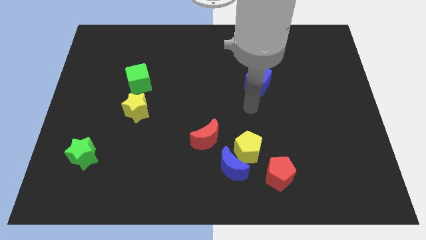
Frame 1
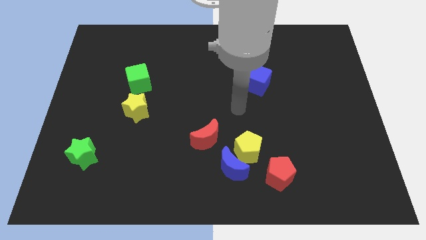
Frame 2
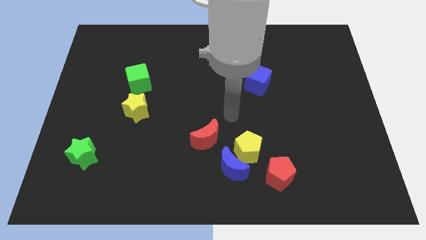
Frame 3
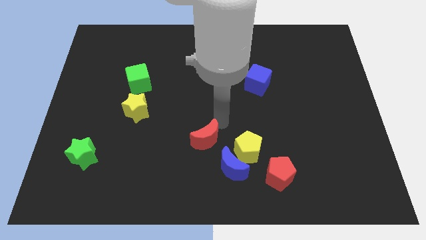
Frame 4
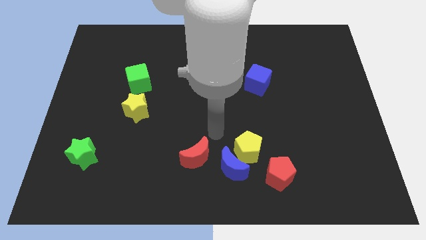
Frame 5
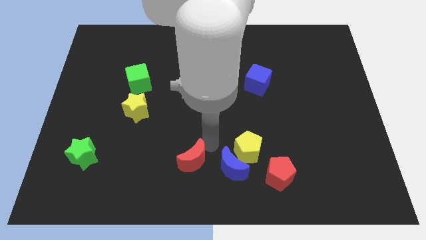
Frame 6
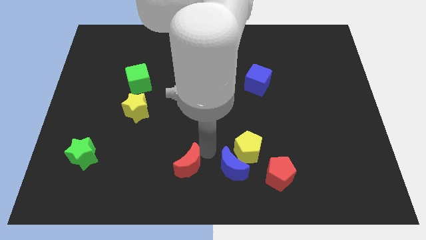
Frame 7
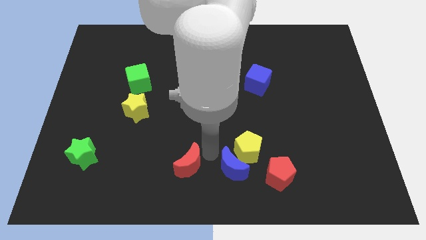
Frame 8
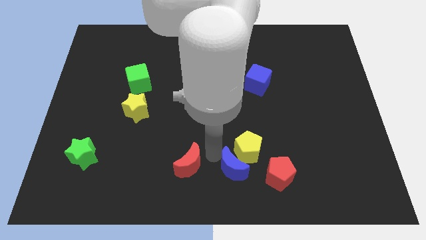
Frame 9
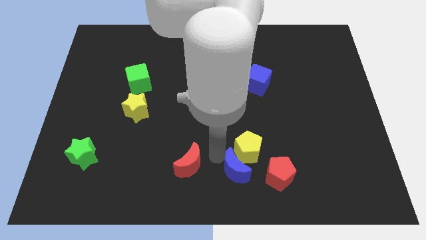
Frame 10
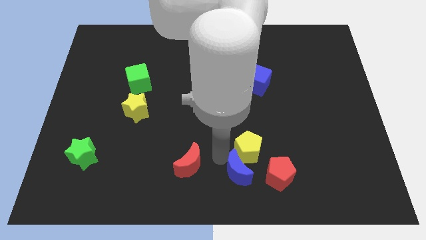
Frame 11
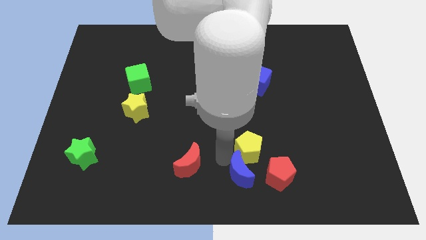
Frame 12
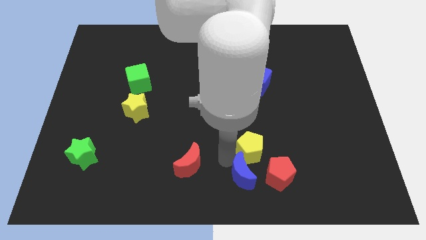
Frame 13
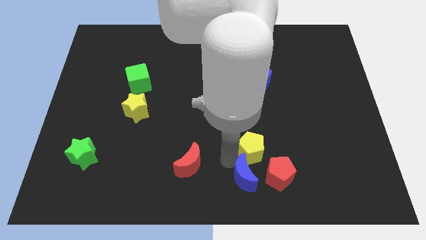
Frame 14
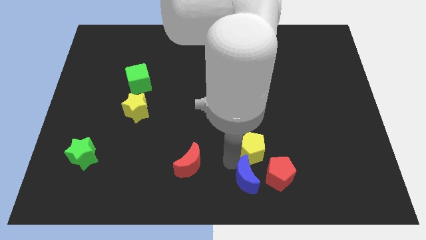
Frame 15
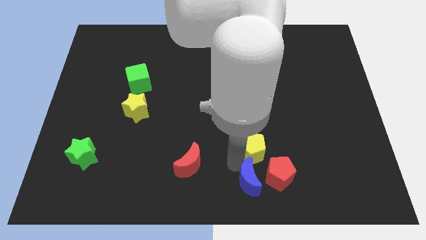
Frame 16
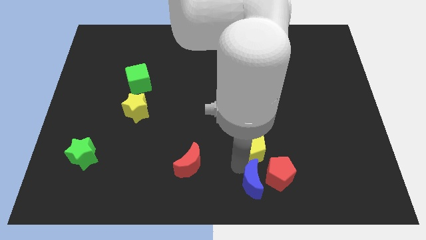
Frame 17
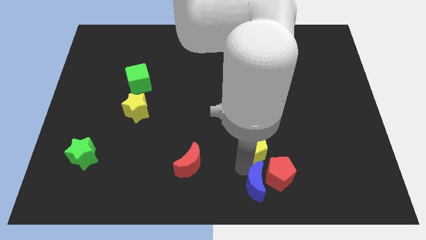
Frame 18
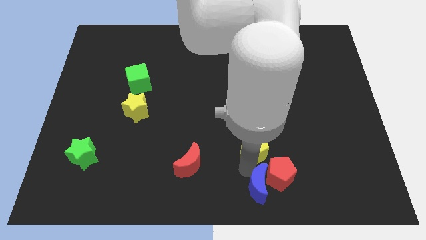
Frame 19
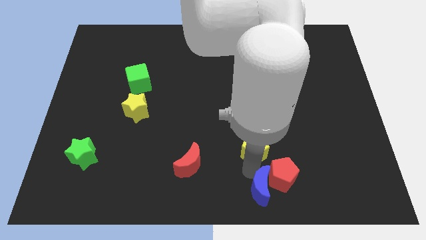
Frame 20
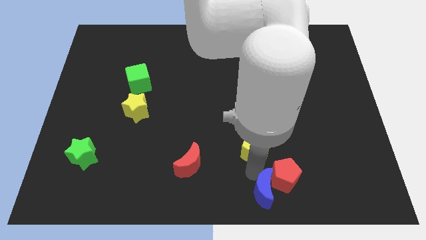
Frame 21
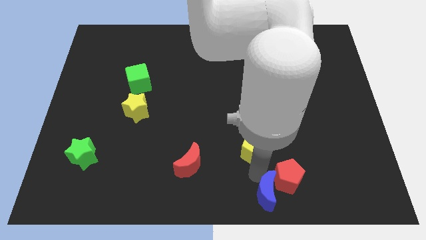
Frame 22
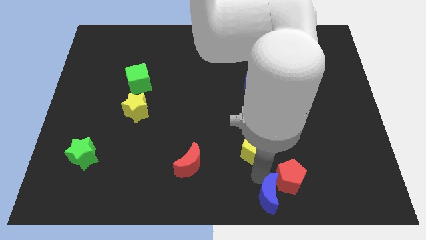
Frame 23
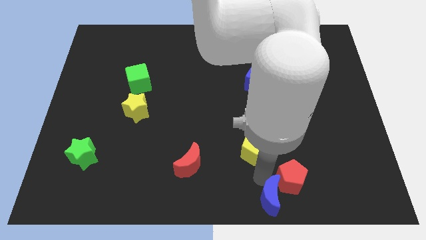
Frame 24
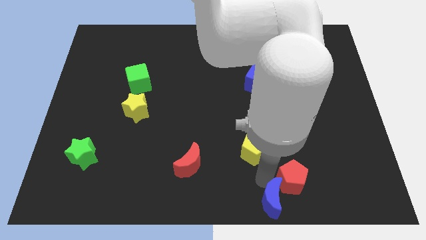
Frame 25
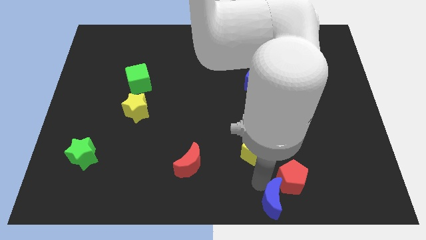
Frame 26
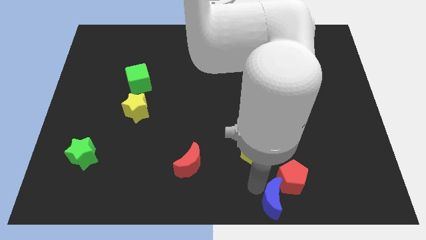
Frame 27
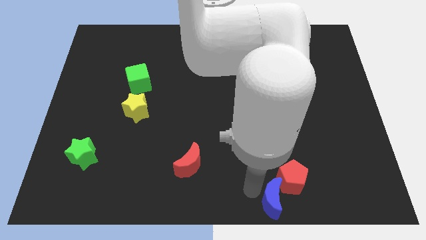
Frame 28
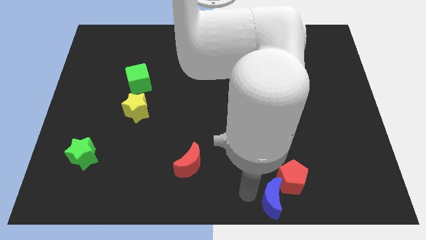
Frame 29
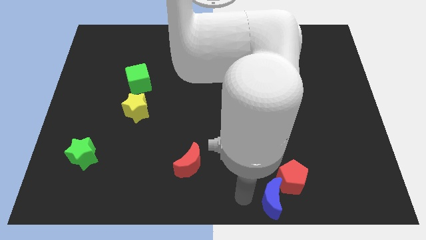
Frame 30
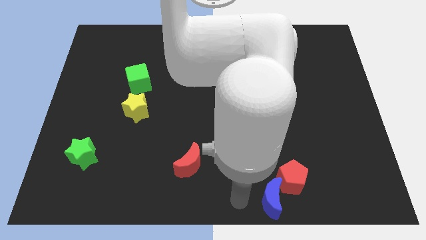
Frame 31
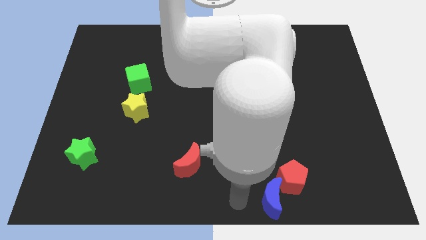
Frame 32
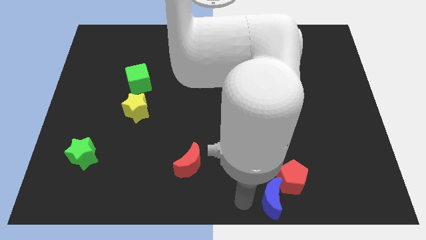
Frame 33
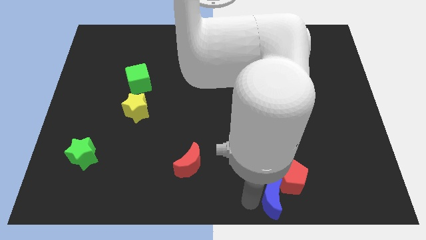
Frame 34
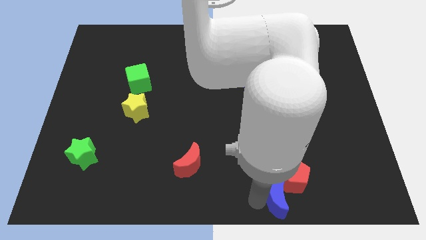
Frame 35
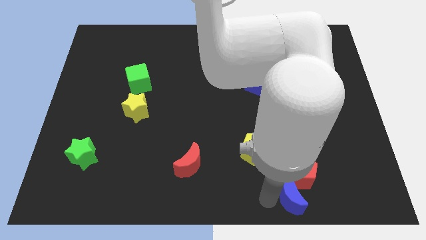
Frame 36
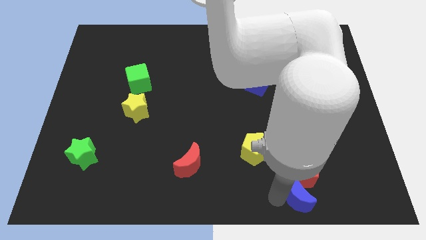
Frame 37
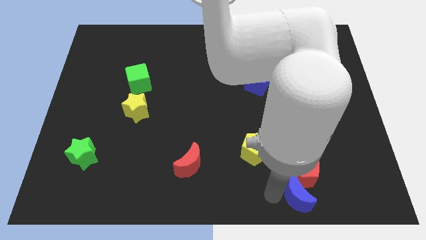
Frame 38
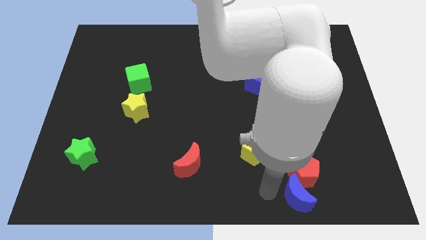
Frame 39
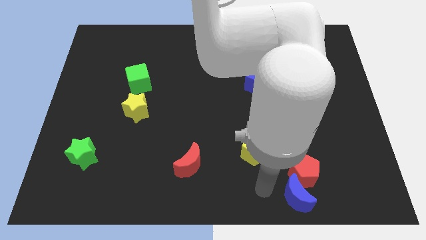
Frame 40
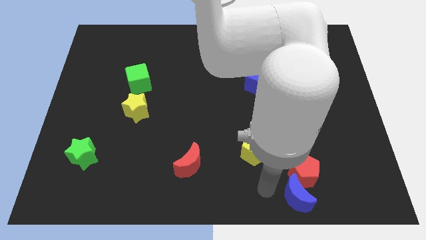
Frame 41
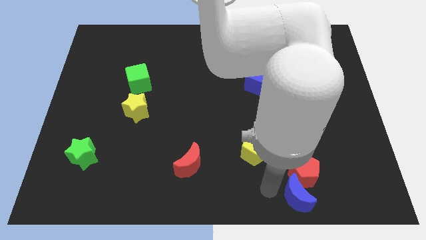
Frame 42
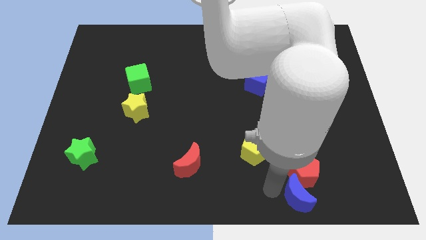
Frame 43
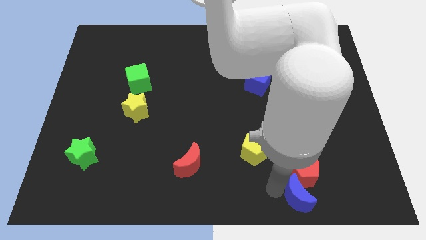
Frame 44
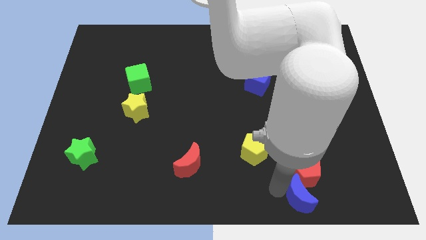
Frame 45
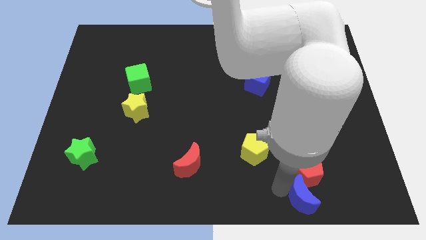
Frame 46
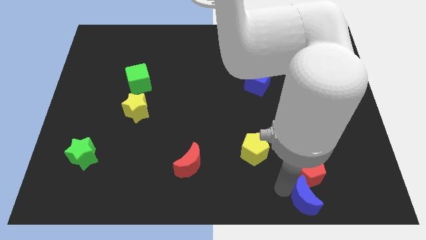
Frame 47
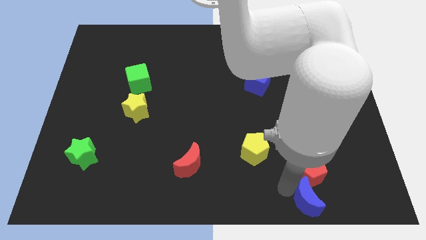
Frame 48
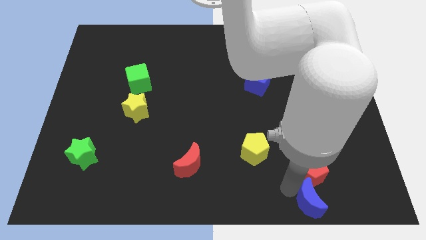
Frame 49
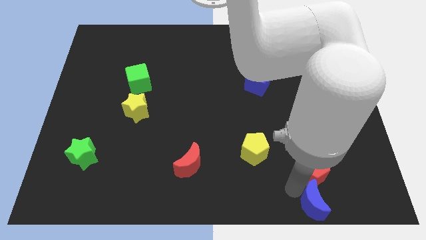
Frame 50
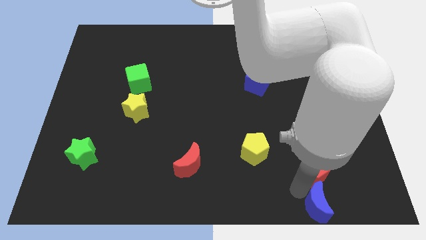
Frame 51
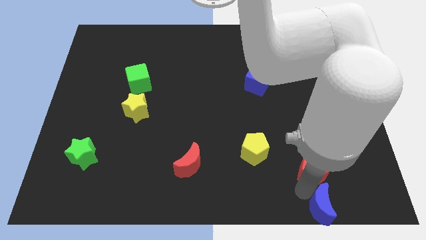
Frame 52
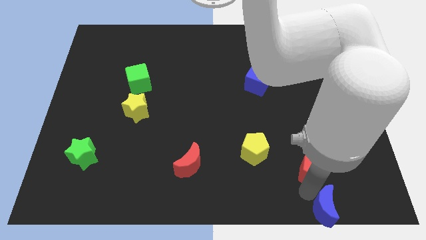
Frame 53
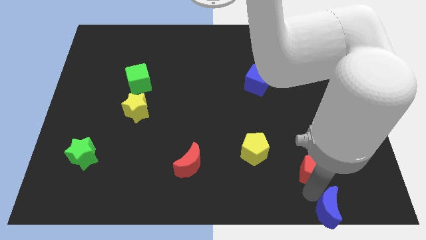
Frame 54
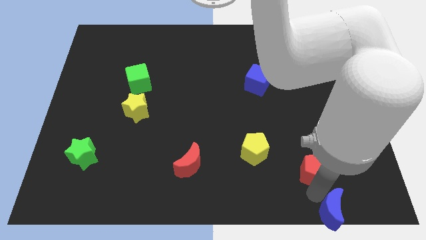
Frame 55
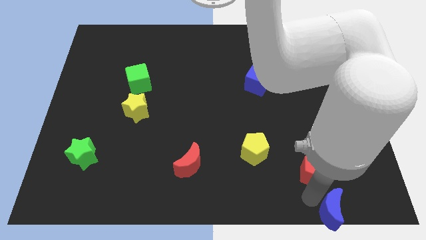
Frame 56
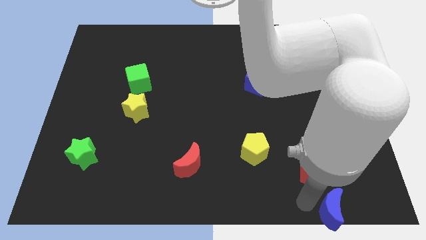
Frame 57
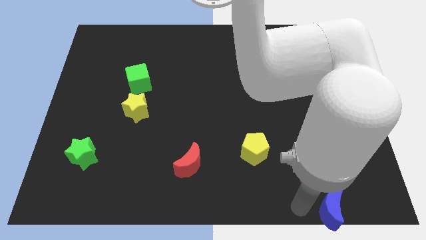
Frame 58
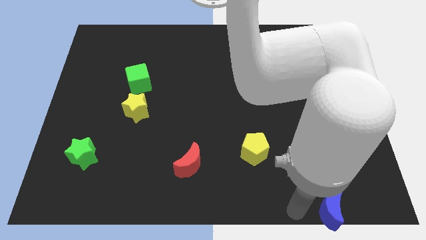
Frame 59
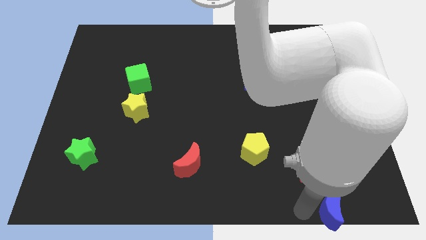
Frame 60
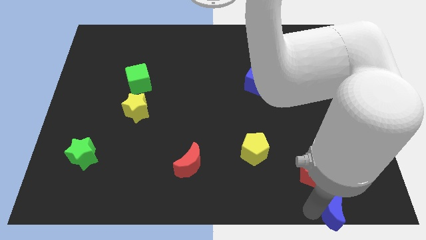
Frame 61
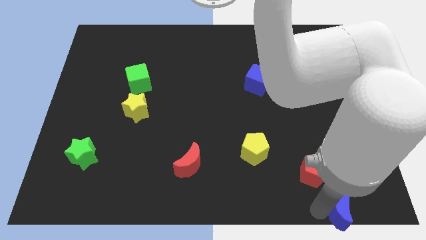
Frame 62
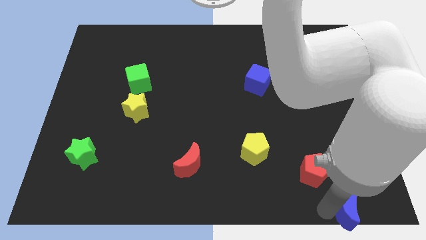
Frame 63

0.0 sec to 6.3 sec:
slide the blue moon to the bottom right corner

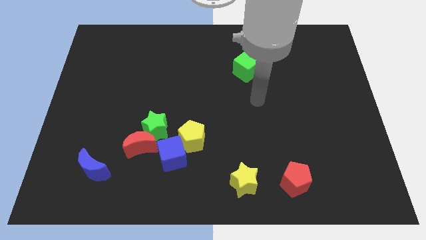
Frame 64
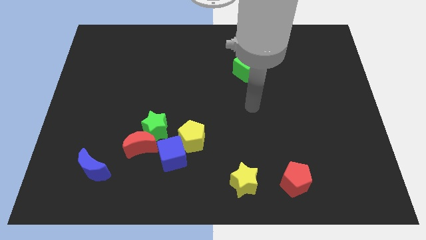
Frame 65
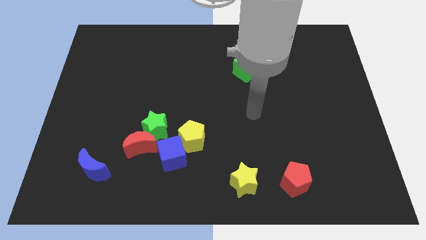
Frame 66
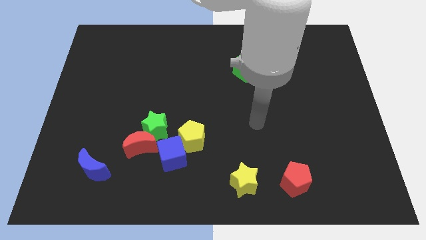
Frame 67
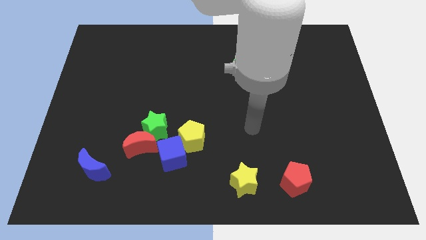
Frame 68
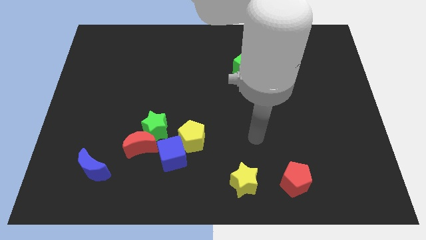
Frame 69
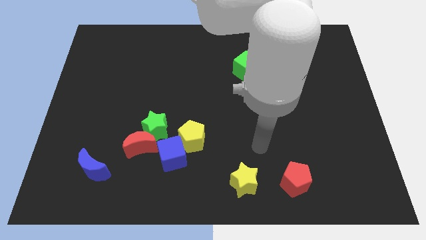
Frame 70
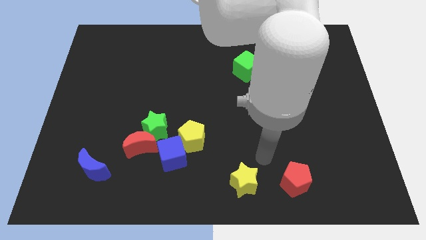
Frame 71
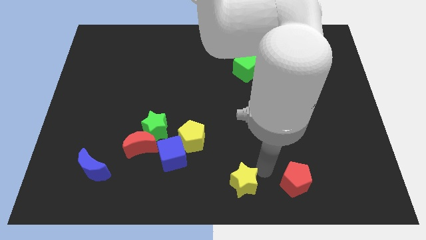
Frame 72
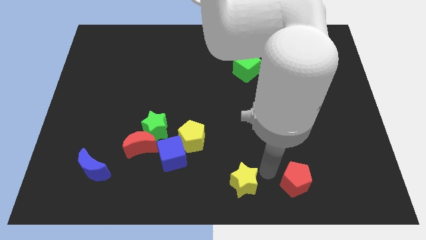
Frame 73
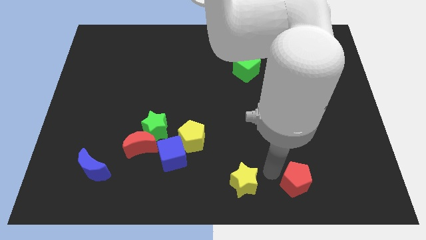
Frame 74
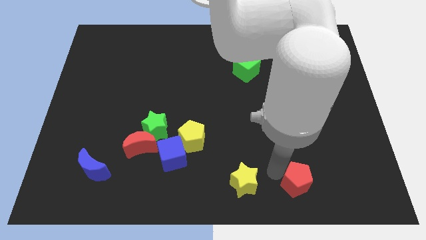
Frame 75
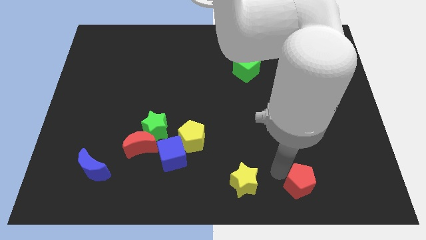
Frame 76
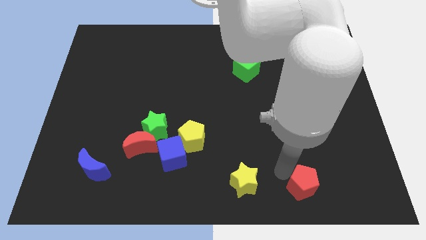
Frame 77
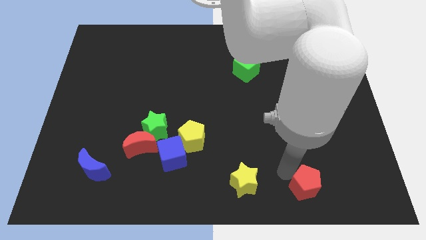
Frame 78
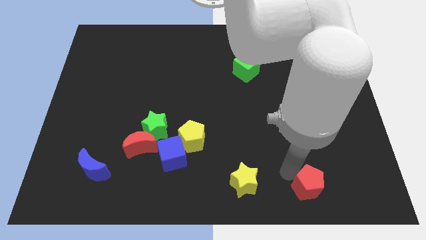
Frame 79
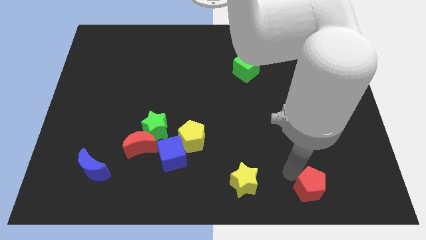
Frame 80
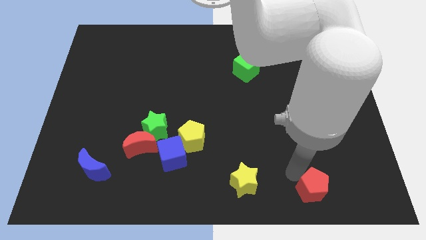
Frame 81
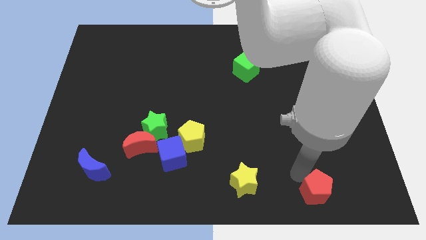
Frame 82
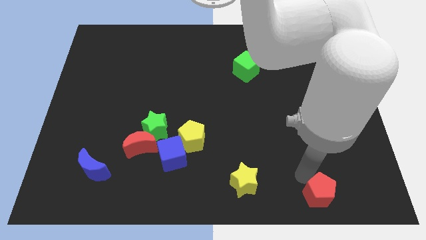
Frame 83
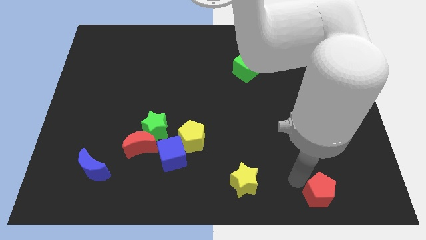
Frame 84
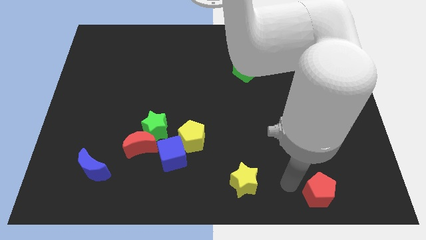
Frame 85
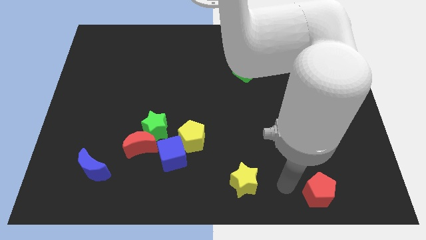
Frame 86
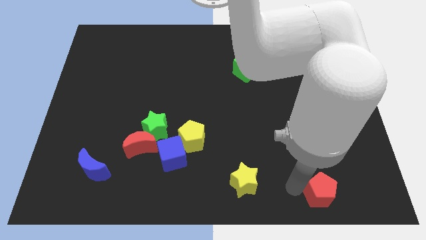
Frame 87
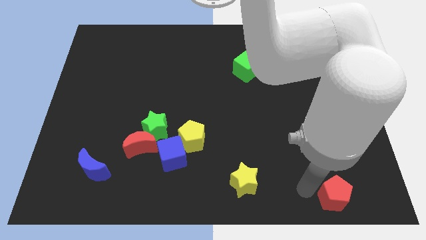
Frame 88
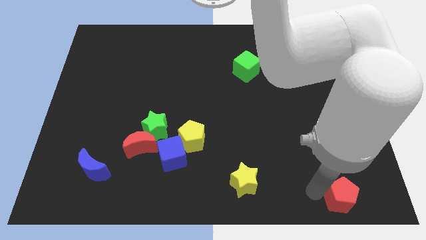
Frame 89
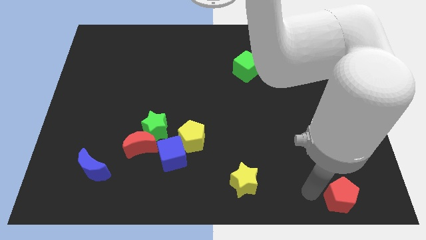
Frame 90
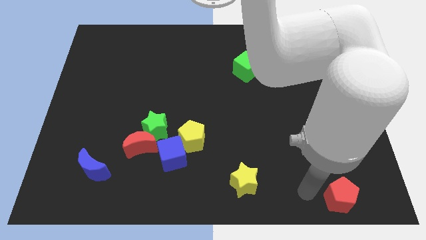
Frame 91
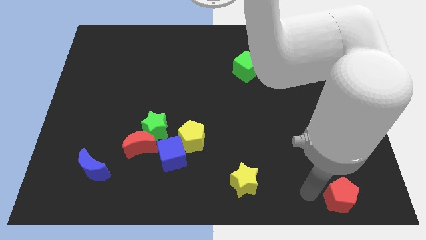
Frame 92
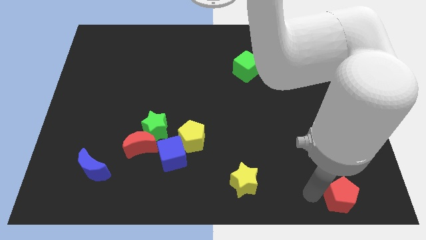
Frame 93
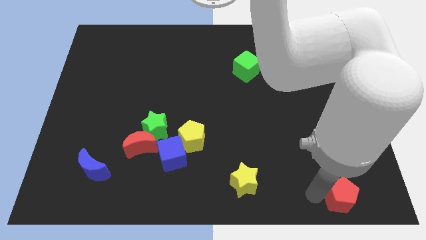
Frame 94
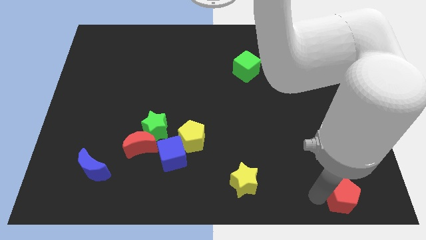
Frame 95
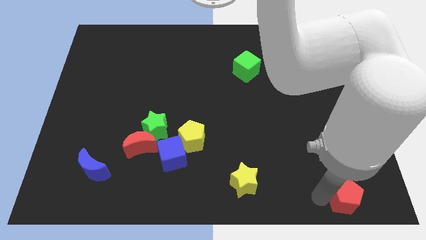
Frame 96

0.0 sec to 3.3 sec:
push the red pentagon to the bottom right of the board
